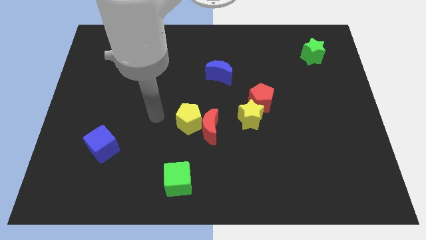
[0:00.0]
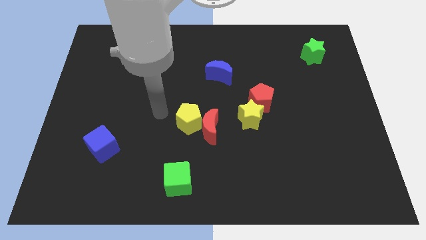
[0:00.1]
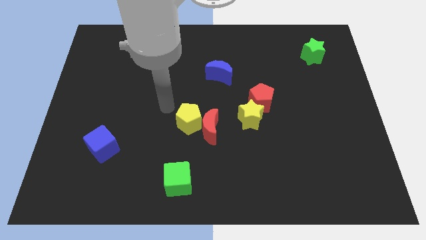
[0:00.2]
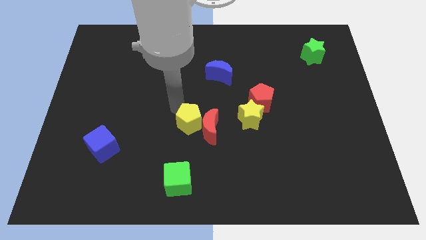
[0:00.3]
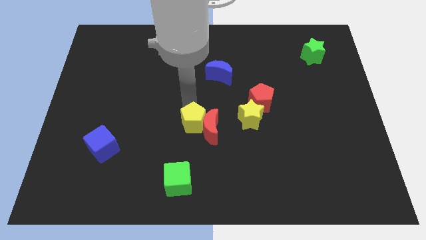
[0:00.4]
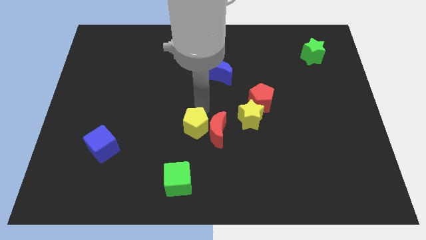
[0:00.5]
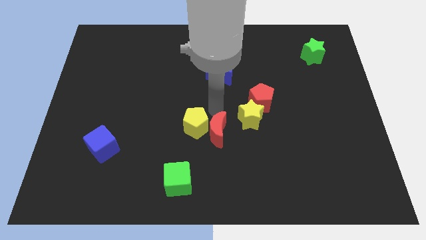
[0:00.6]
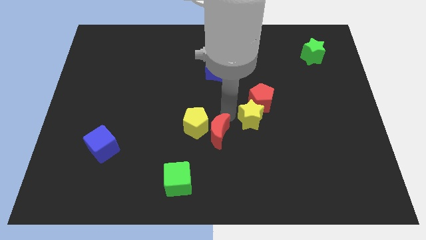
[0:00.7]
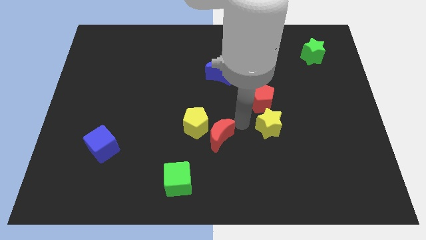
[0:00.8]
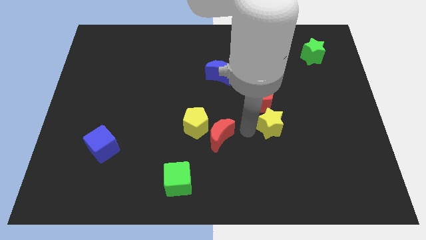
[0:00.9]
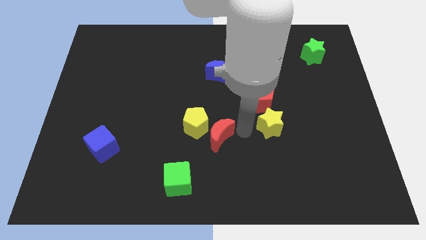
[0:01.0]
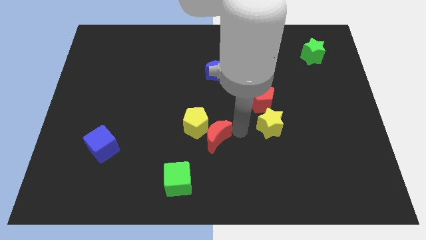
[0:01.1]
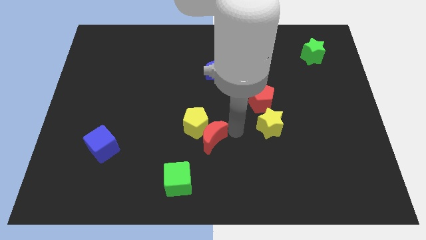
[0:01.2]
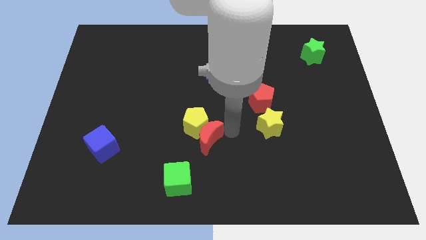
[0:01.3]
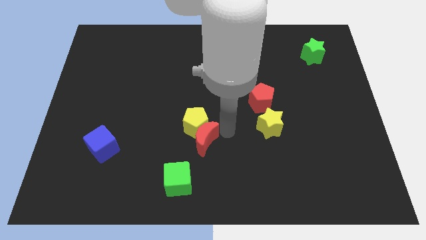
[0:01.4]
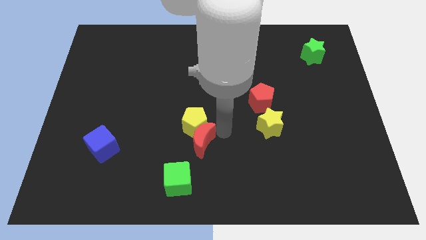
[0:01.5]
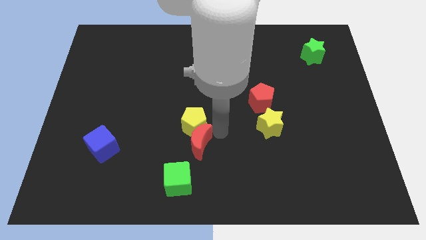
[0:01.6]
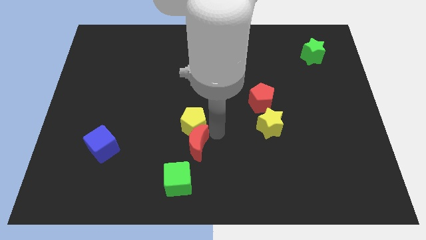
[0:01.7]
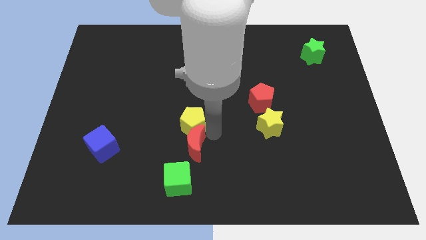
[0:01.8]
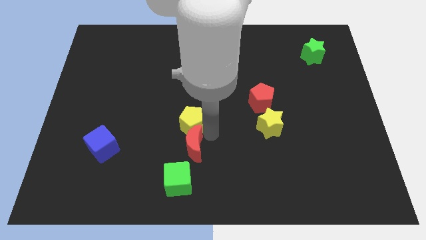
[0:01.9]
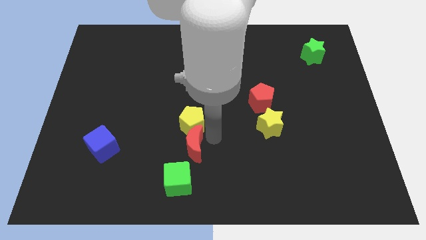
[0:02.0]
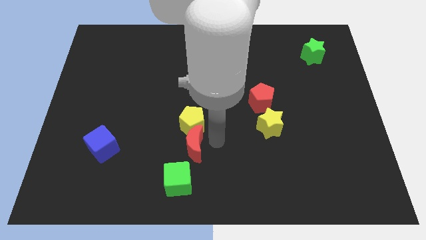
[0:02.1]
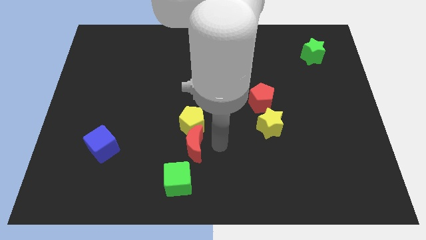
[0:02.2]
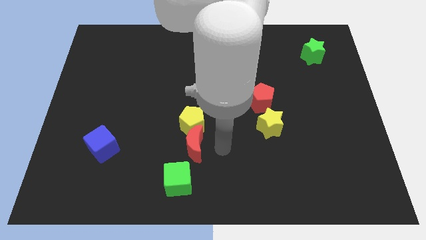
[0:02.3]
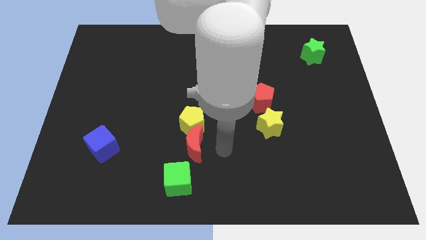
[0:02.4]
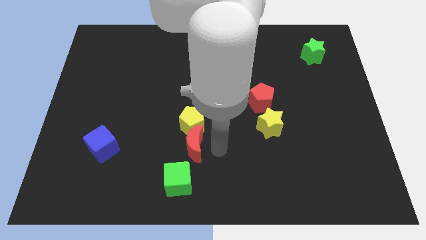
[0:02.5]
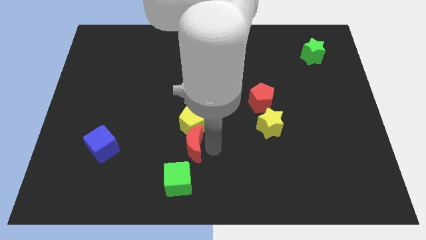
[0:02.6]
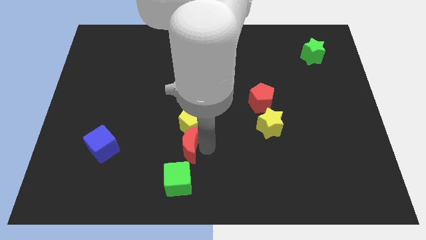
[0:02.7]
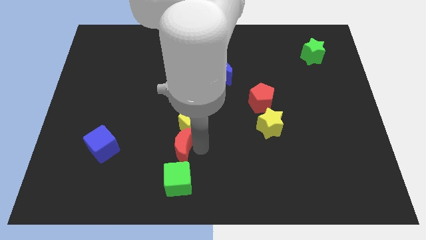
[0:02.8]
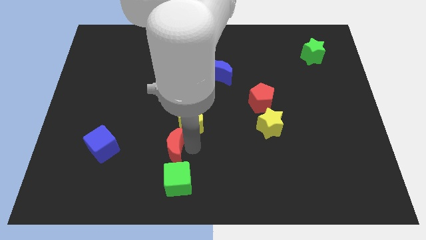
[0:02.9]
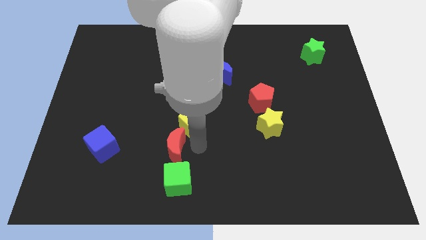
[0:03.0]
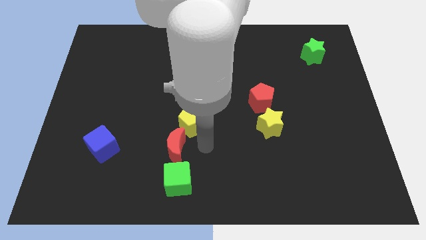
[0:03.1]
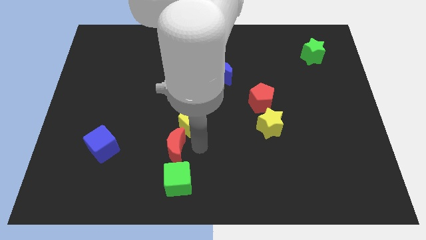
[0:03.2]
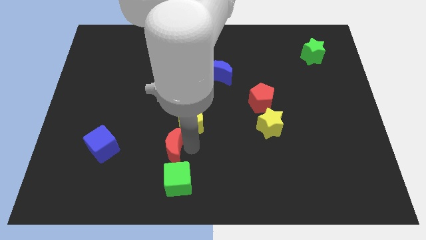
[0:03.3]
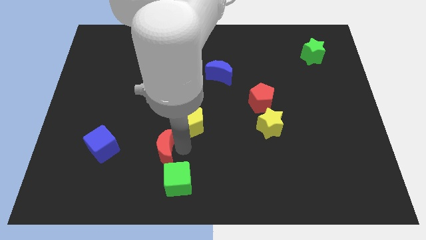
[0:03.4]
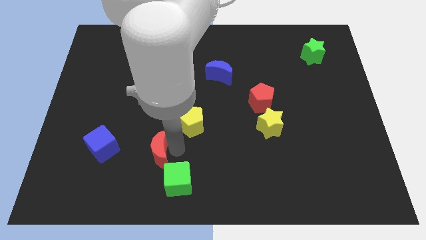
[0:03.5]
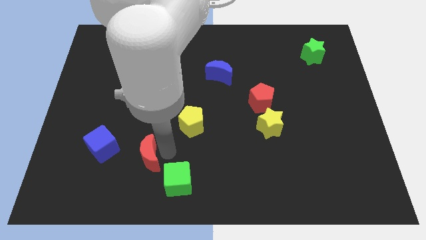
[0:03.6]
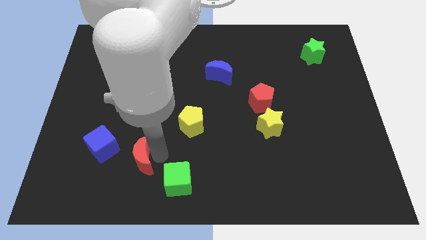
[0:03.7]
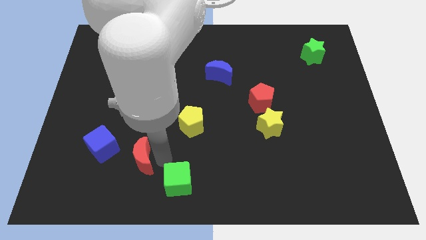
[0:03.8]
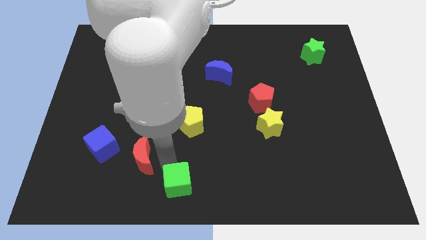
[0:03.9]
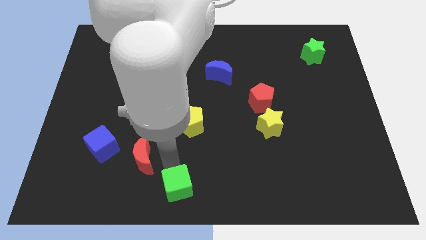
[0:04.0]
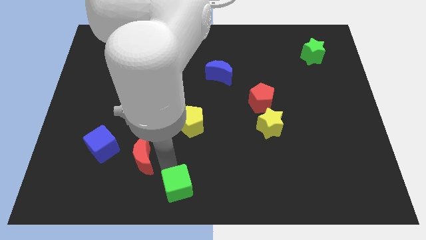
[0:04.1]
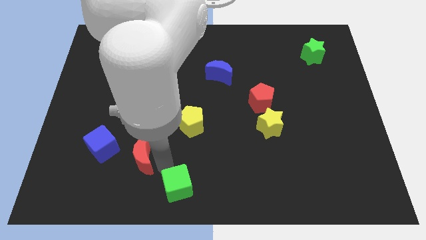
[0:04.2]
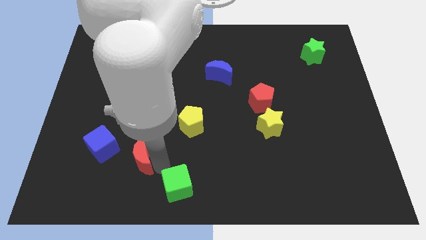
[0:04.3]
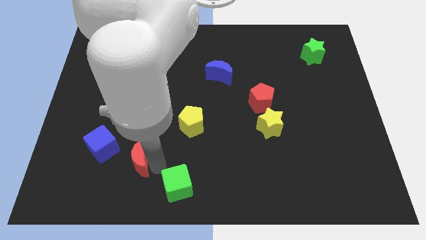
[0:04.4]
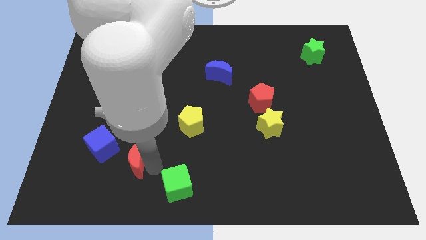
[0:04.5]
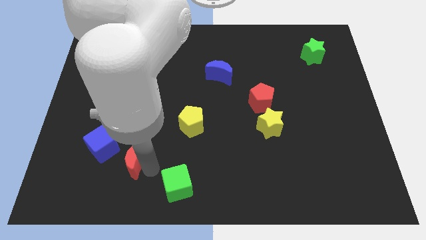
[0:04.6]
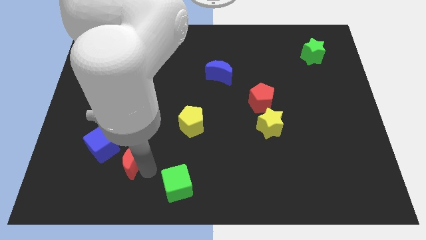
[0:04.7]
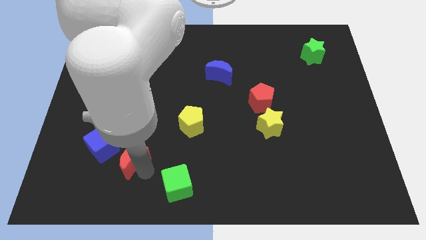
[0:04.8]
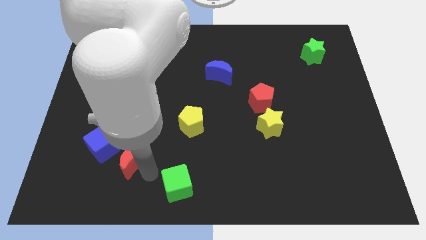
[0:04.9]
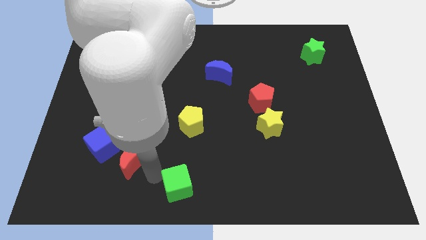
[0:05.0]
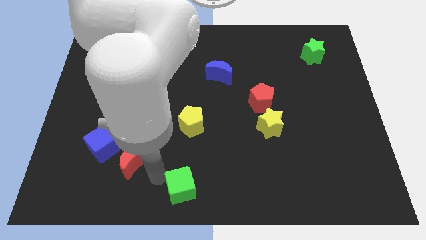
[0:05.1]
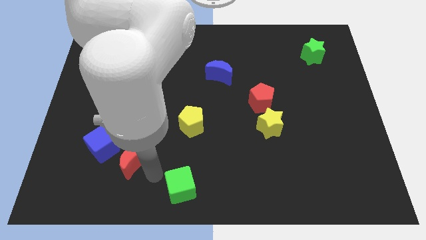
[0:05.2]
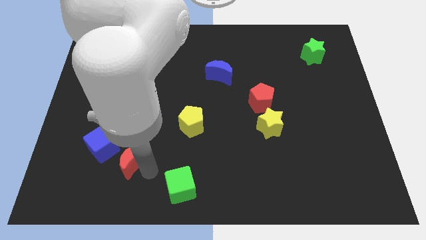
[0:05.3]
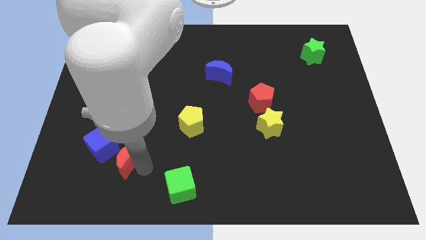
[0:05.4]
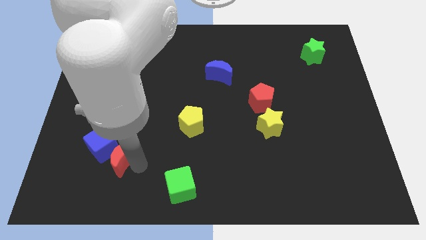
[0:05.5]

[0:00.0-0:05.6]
push the red moon towards the blue cube
